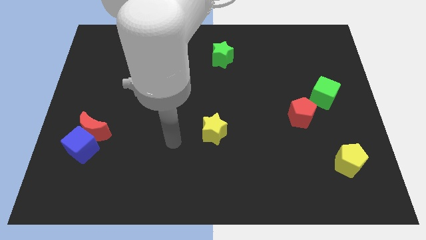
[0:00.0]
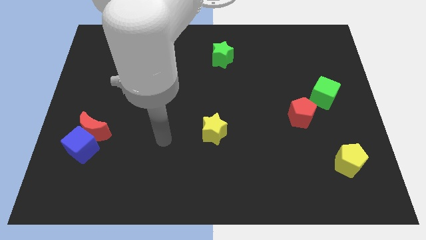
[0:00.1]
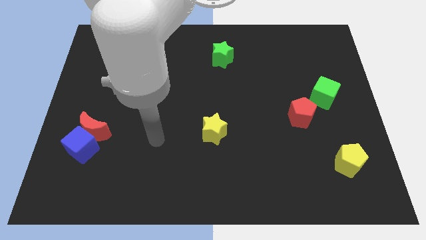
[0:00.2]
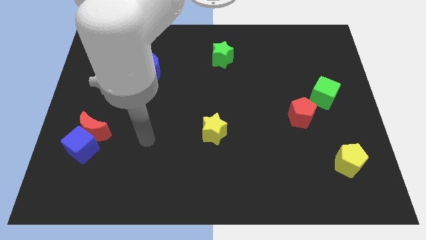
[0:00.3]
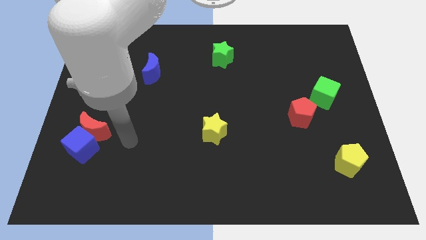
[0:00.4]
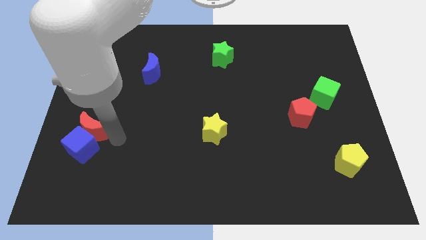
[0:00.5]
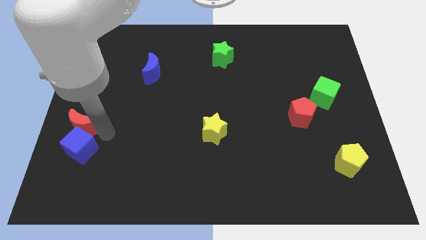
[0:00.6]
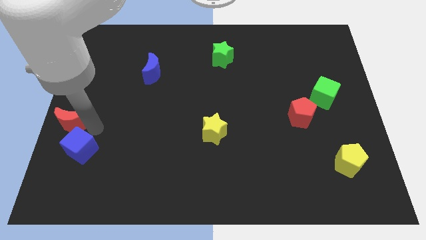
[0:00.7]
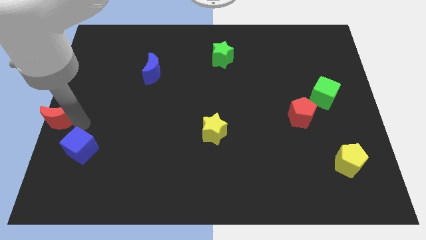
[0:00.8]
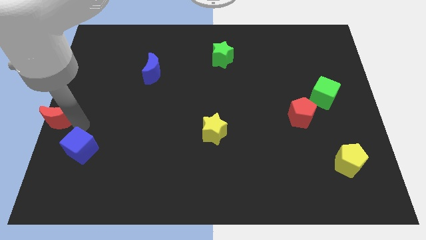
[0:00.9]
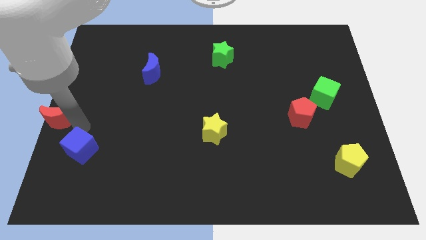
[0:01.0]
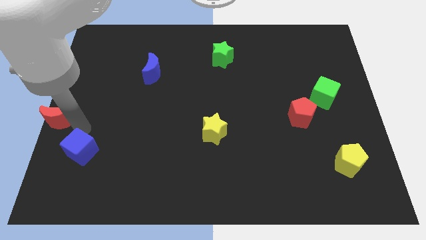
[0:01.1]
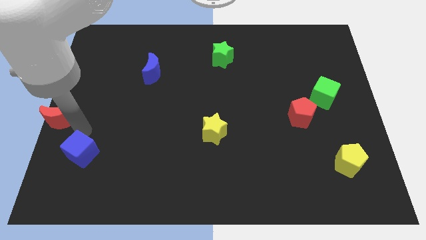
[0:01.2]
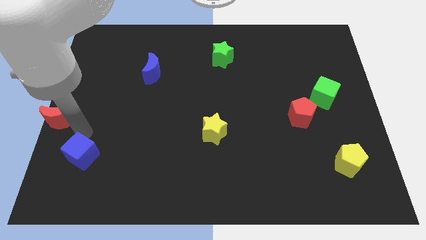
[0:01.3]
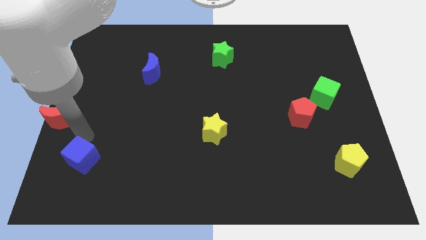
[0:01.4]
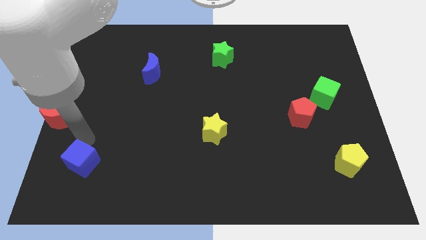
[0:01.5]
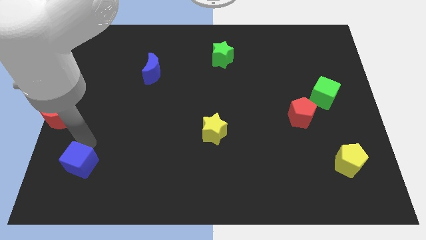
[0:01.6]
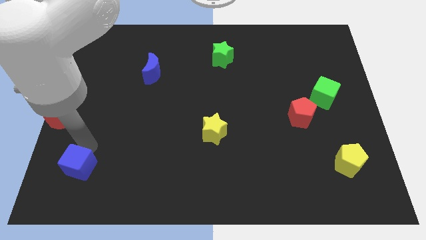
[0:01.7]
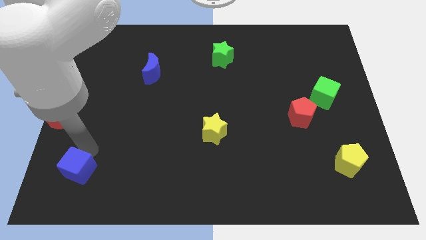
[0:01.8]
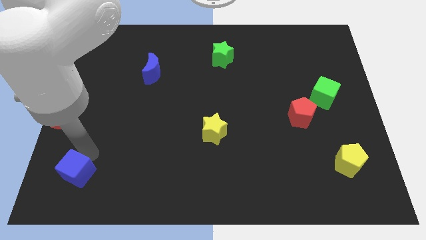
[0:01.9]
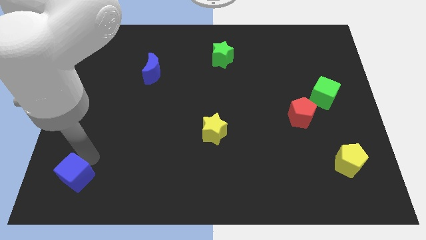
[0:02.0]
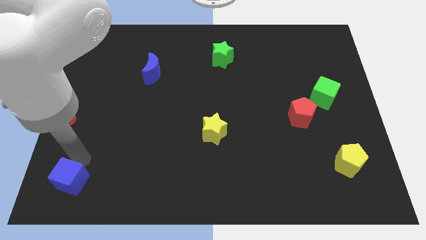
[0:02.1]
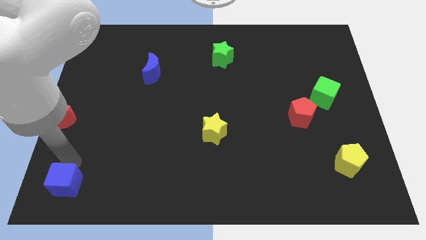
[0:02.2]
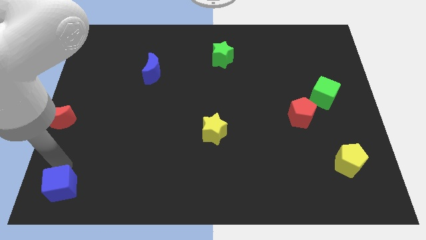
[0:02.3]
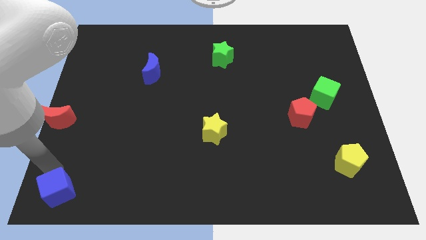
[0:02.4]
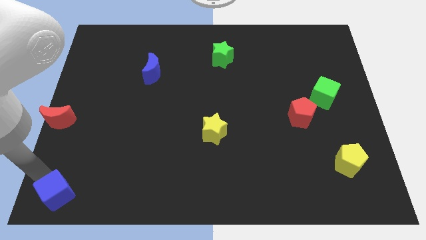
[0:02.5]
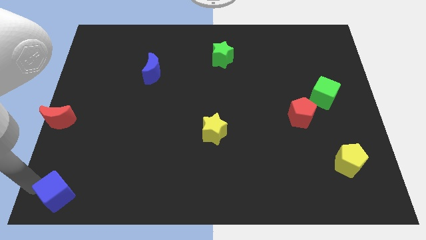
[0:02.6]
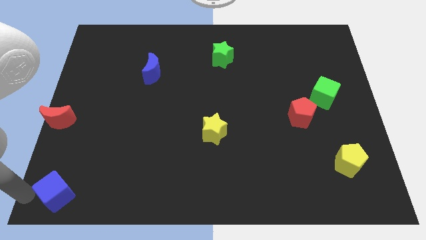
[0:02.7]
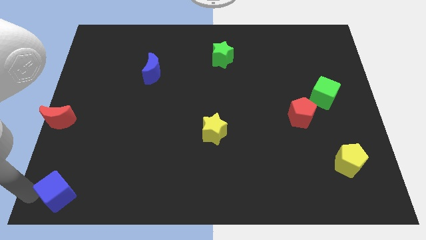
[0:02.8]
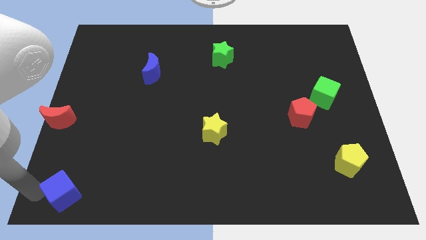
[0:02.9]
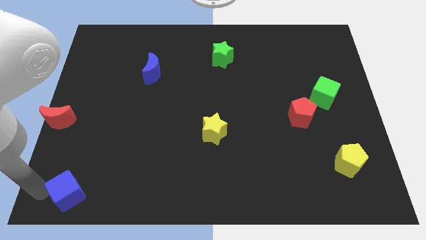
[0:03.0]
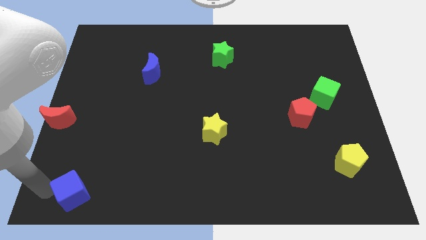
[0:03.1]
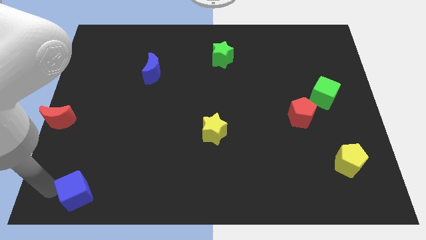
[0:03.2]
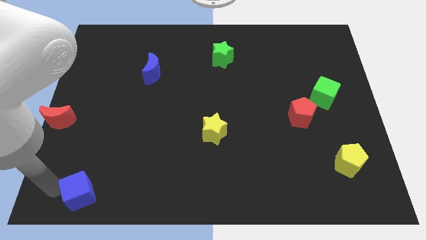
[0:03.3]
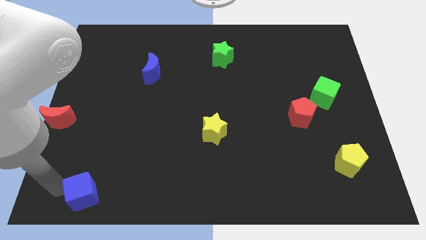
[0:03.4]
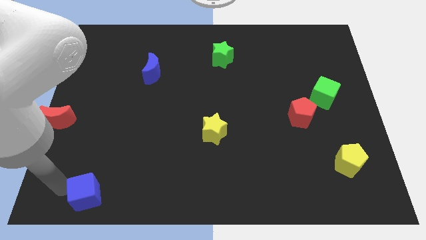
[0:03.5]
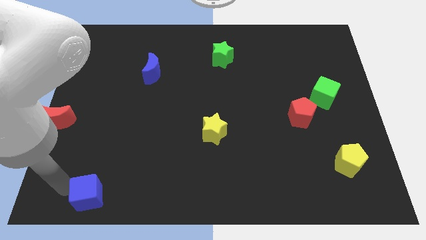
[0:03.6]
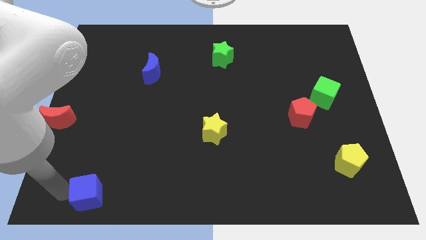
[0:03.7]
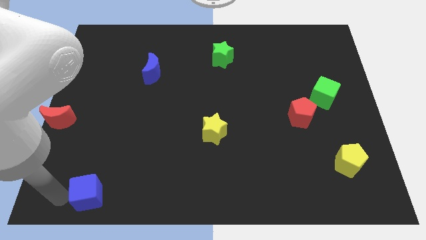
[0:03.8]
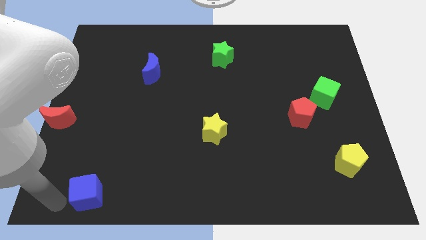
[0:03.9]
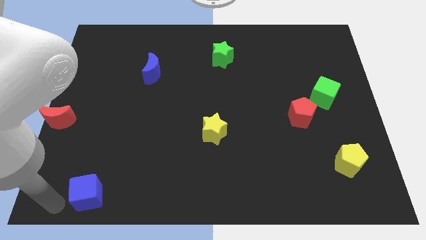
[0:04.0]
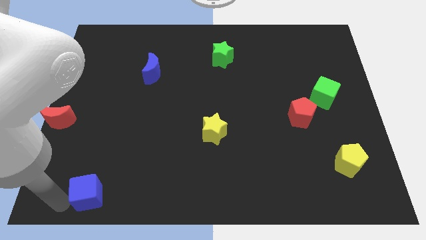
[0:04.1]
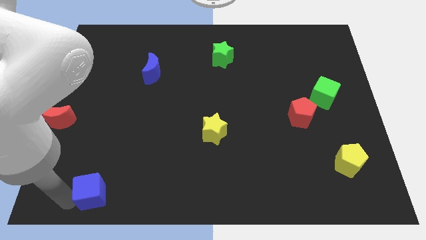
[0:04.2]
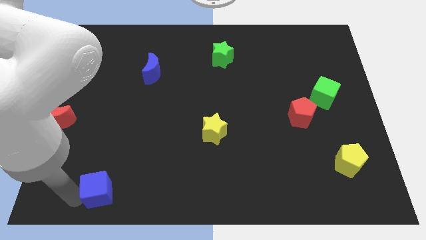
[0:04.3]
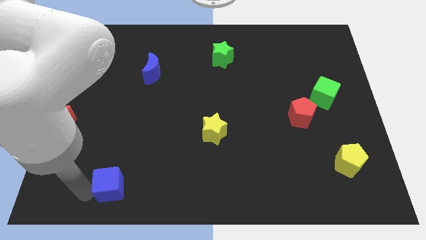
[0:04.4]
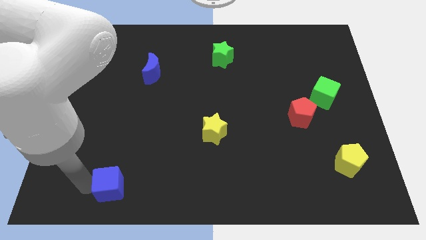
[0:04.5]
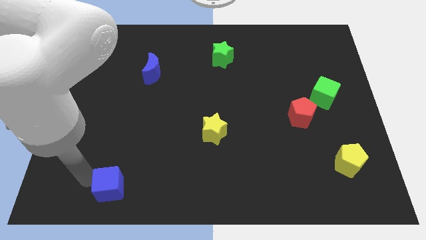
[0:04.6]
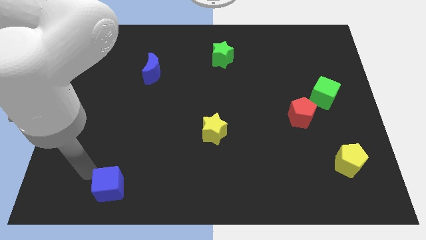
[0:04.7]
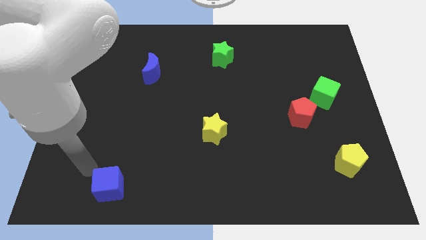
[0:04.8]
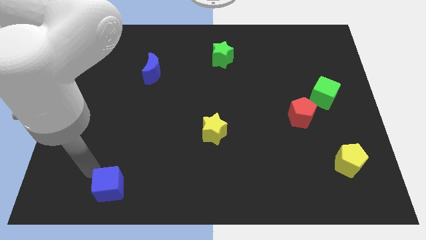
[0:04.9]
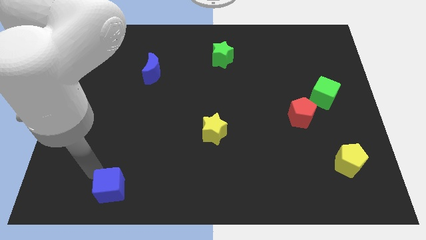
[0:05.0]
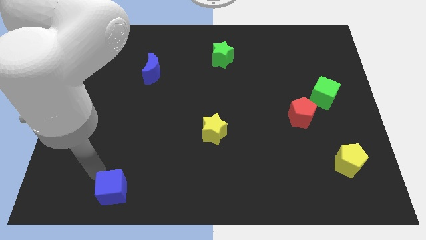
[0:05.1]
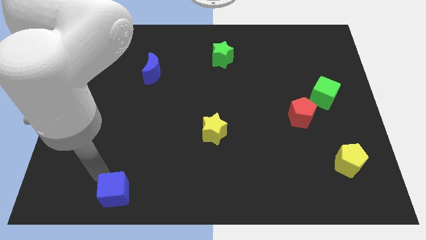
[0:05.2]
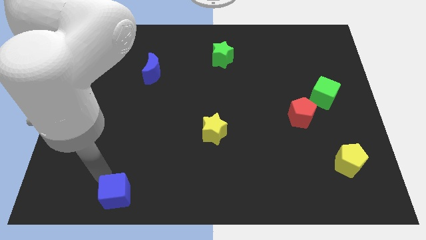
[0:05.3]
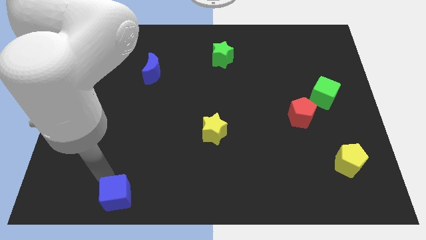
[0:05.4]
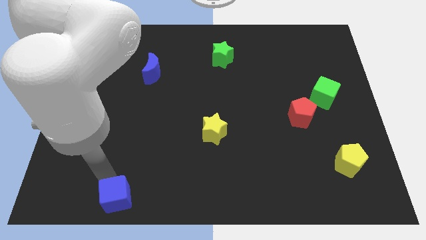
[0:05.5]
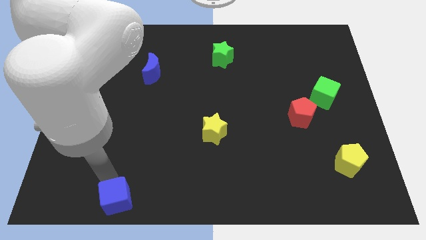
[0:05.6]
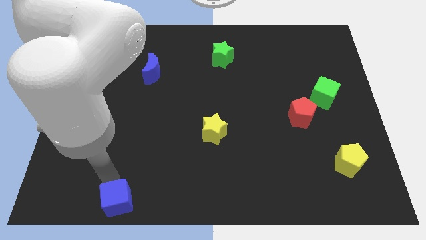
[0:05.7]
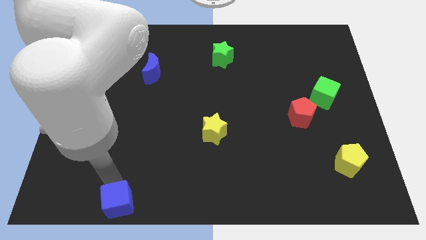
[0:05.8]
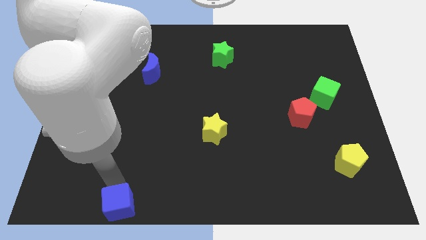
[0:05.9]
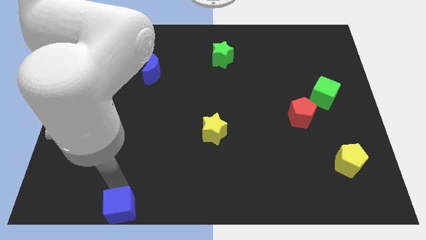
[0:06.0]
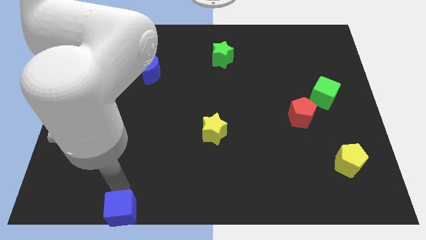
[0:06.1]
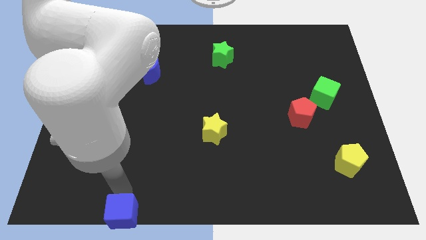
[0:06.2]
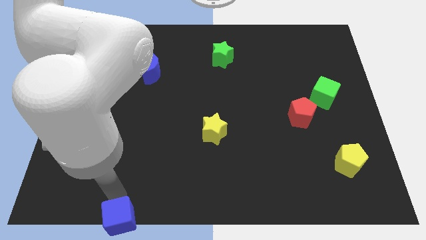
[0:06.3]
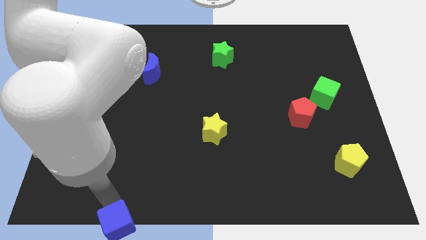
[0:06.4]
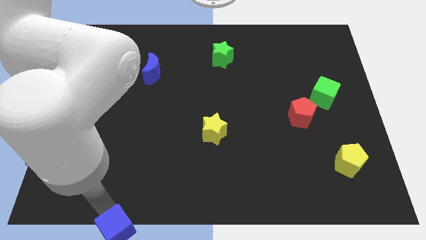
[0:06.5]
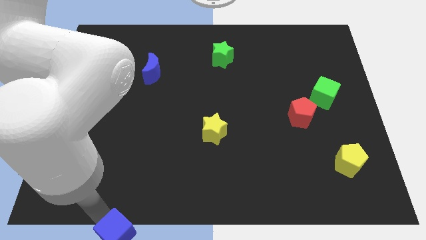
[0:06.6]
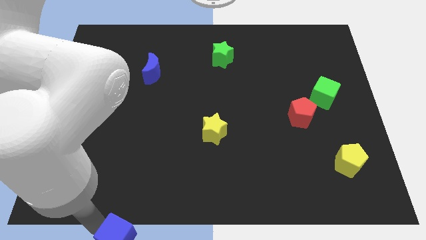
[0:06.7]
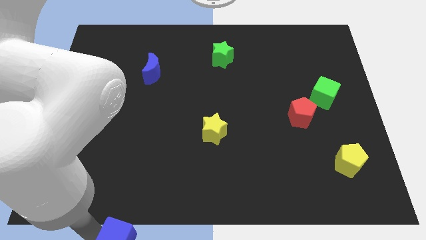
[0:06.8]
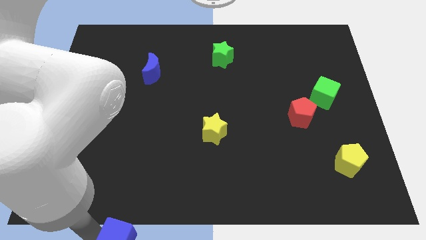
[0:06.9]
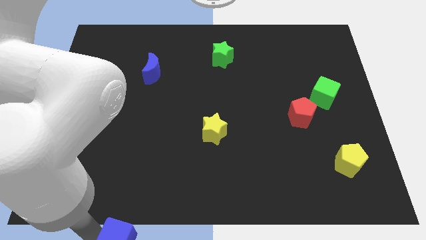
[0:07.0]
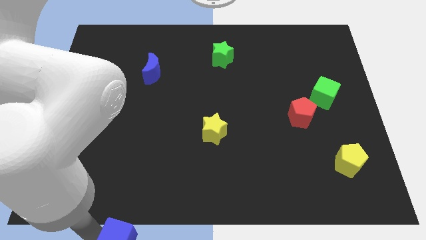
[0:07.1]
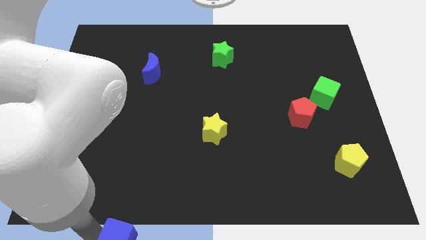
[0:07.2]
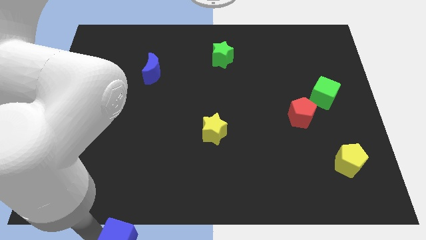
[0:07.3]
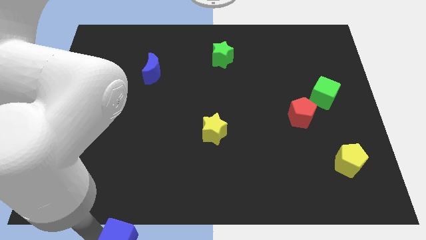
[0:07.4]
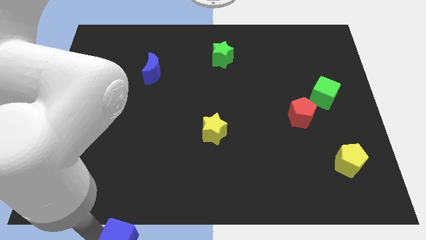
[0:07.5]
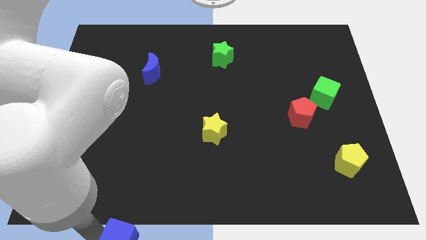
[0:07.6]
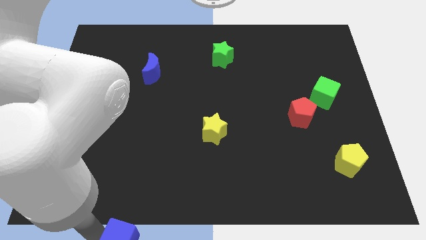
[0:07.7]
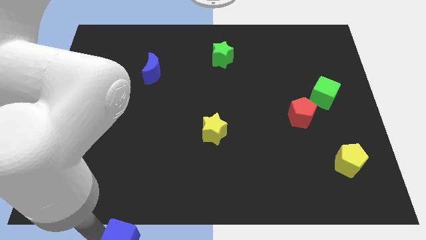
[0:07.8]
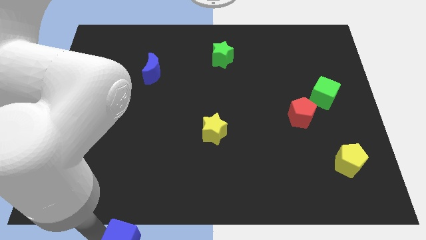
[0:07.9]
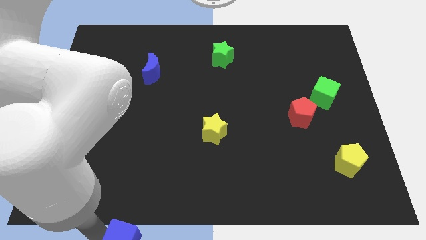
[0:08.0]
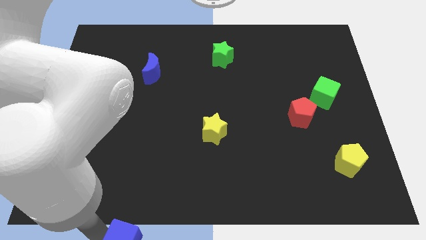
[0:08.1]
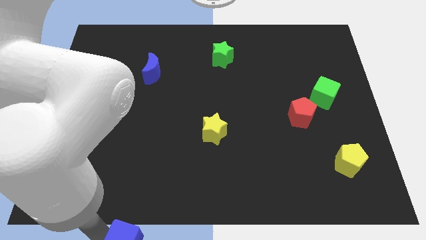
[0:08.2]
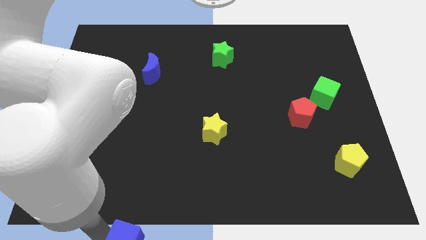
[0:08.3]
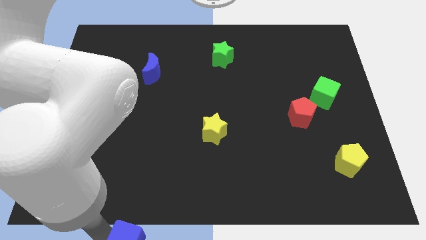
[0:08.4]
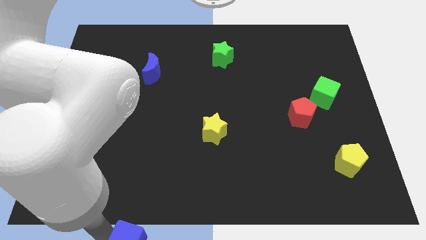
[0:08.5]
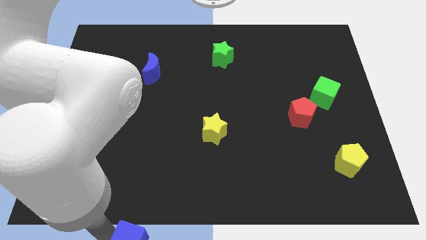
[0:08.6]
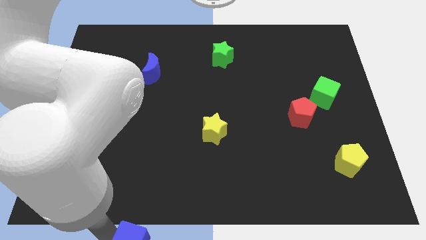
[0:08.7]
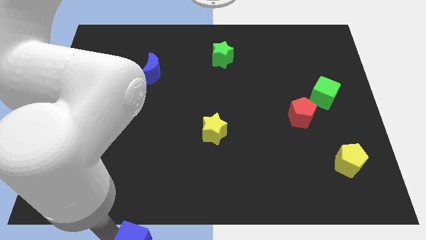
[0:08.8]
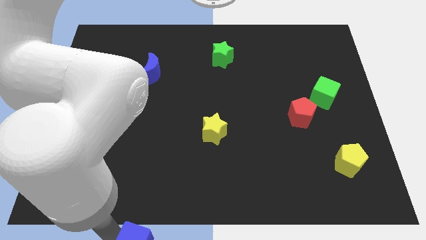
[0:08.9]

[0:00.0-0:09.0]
move the blue cube to the bottom side
